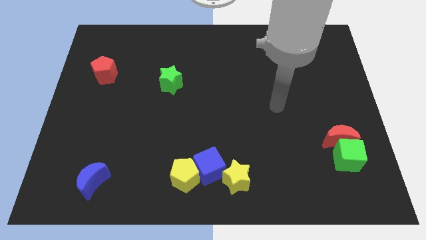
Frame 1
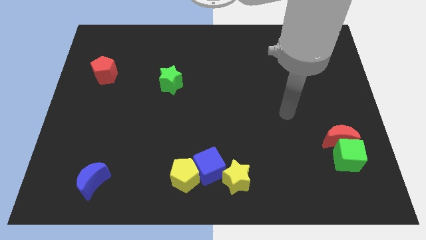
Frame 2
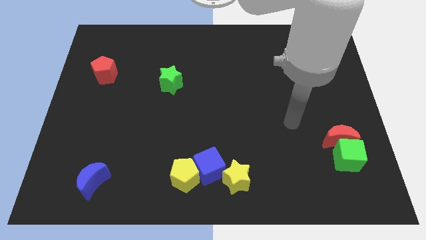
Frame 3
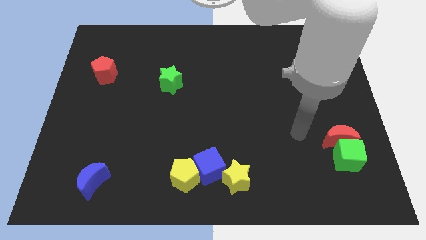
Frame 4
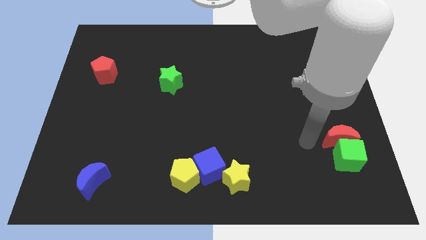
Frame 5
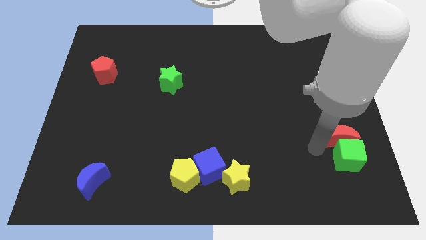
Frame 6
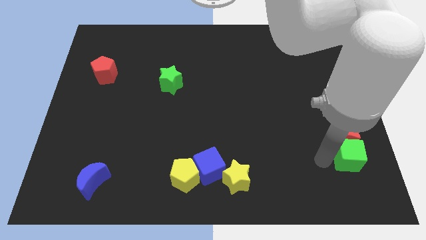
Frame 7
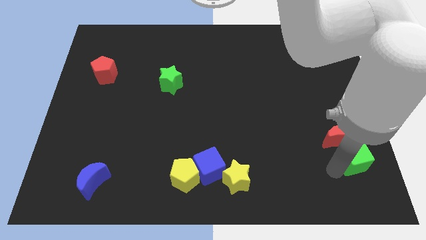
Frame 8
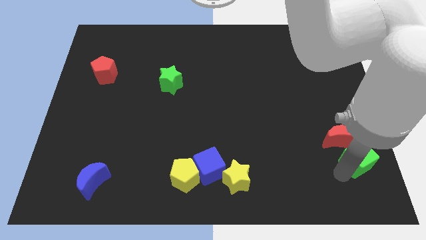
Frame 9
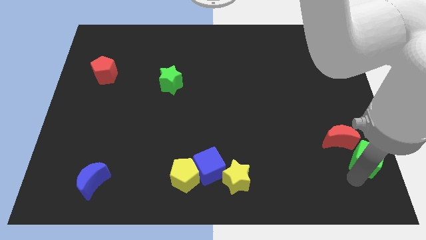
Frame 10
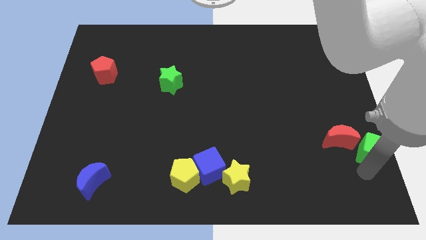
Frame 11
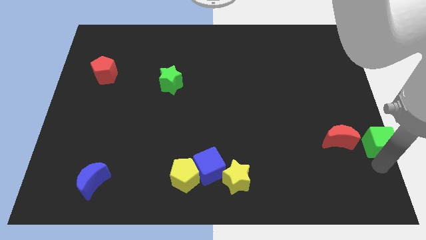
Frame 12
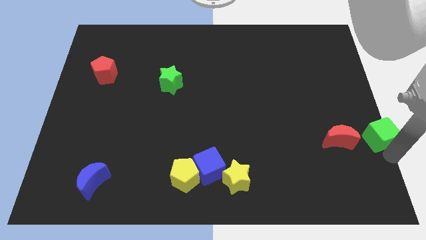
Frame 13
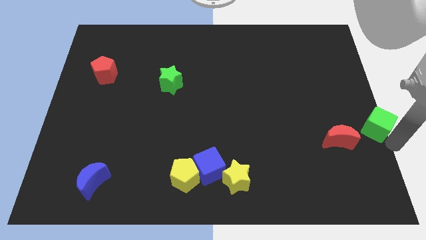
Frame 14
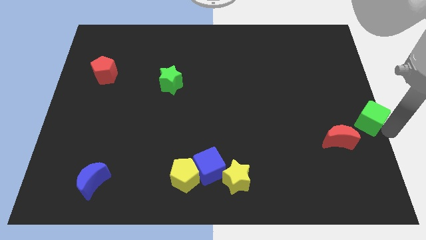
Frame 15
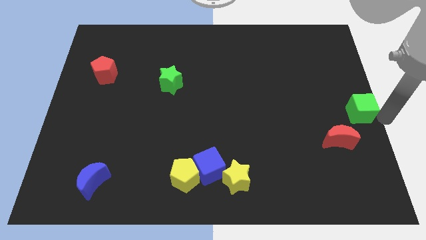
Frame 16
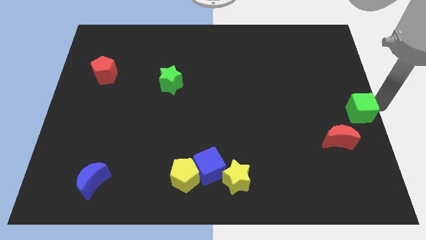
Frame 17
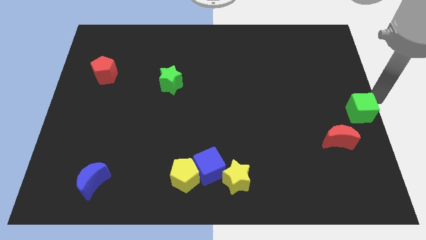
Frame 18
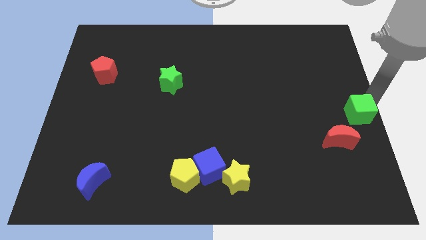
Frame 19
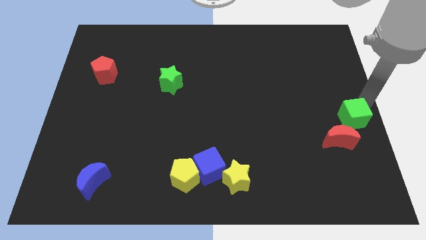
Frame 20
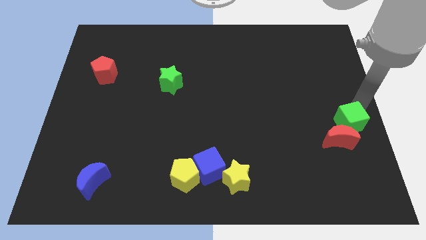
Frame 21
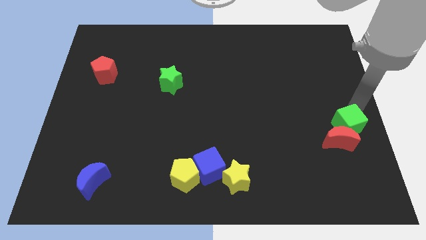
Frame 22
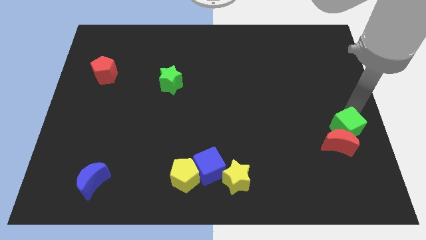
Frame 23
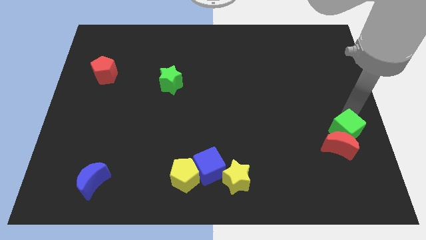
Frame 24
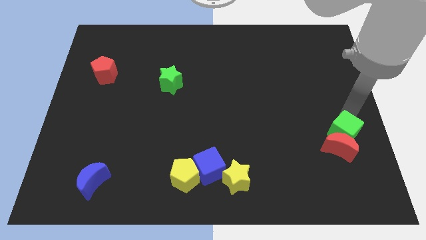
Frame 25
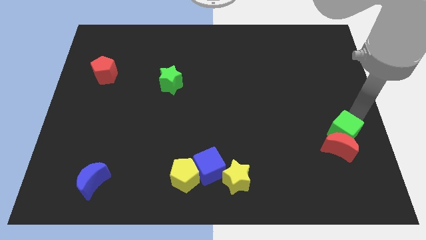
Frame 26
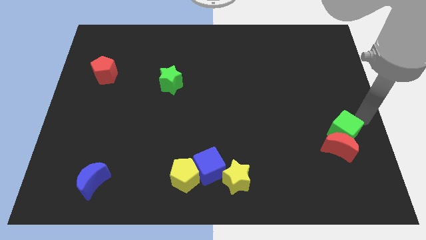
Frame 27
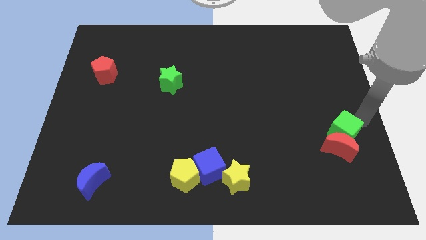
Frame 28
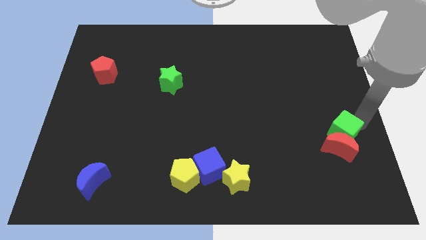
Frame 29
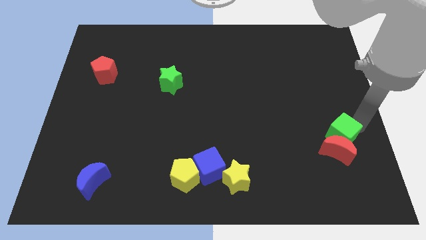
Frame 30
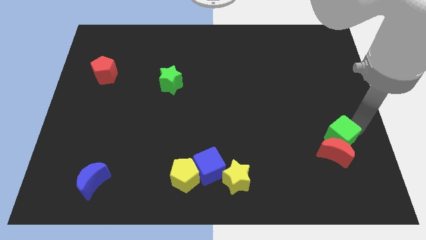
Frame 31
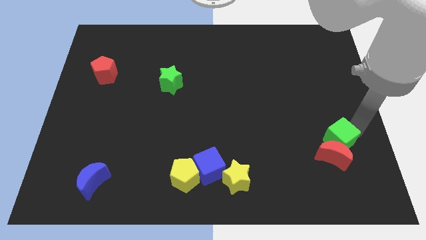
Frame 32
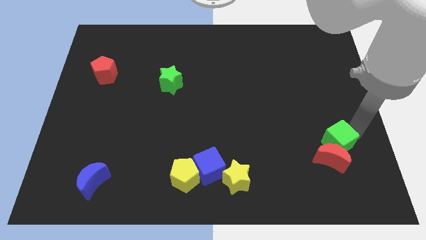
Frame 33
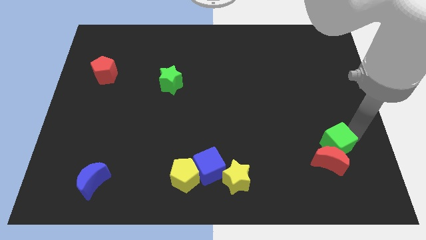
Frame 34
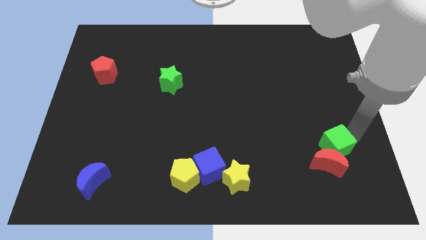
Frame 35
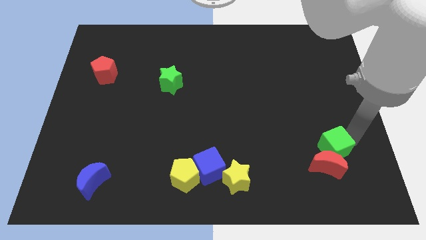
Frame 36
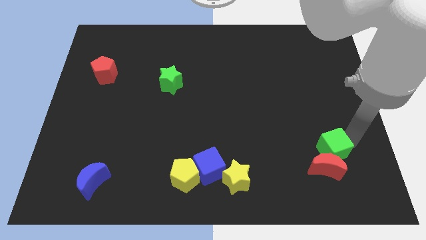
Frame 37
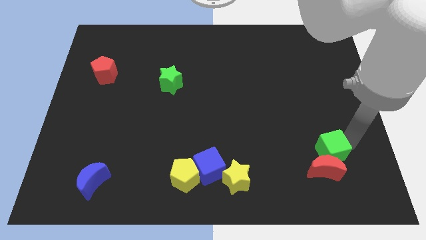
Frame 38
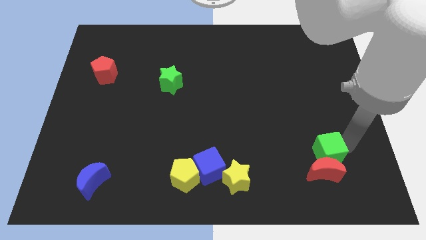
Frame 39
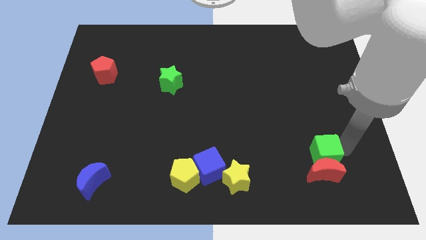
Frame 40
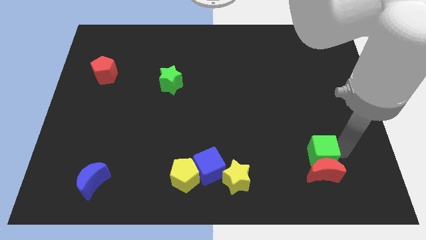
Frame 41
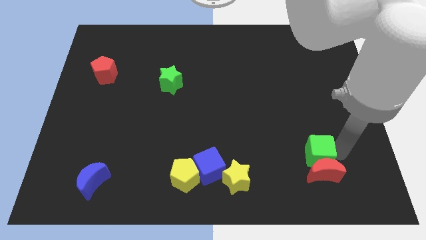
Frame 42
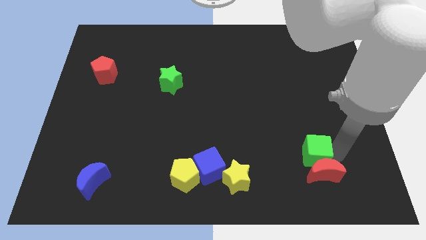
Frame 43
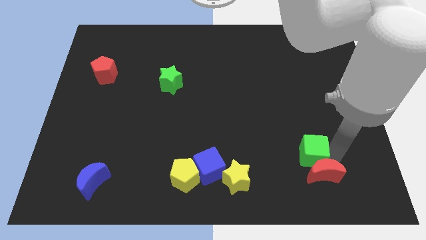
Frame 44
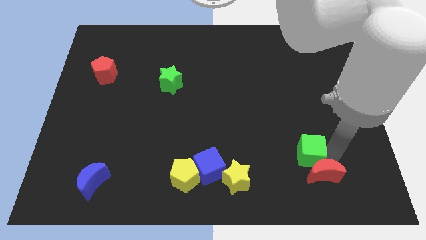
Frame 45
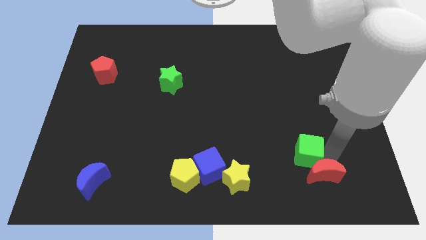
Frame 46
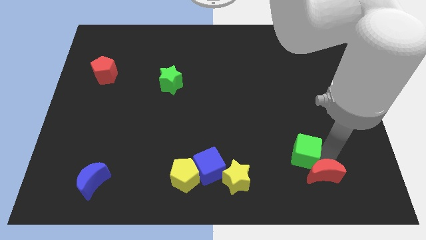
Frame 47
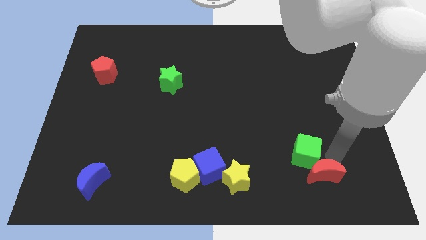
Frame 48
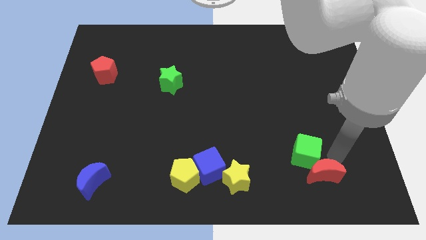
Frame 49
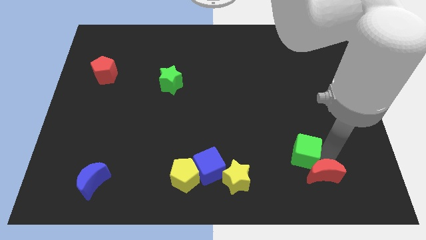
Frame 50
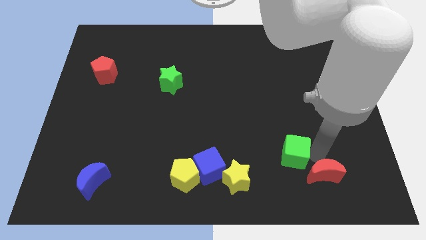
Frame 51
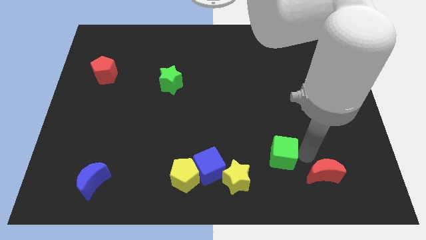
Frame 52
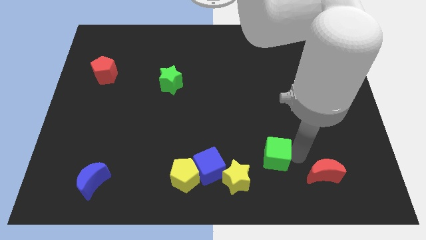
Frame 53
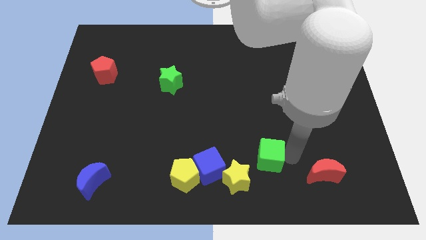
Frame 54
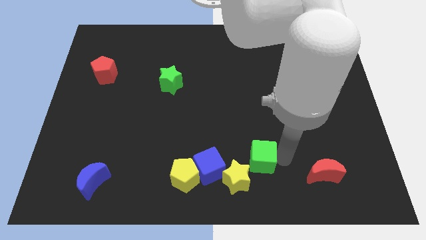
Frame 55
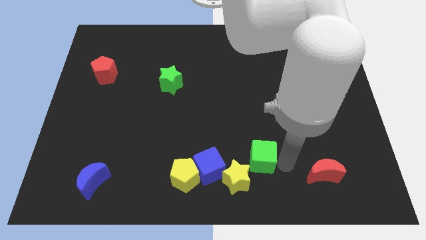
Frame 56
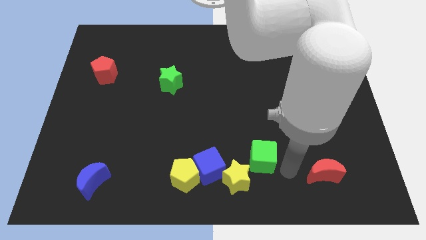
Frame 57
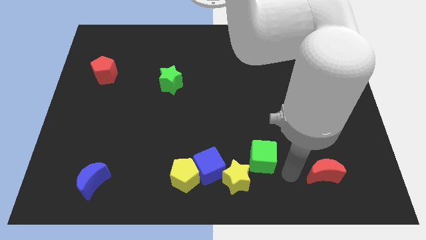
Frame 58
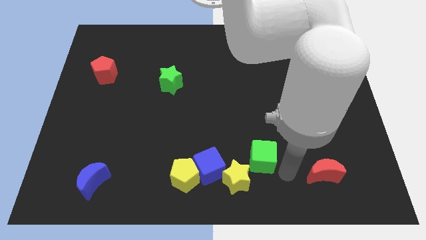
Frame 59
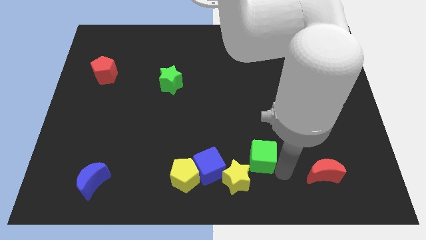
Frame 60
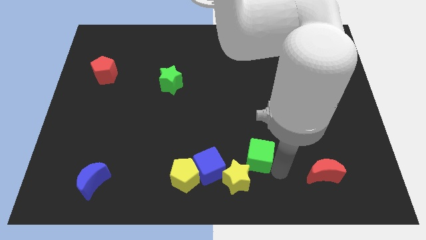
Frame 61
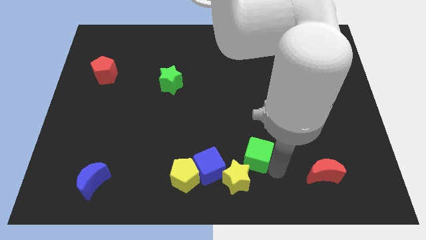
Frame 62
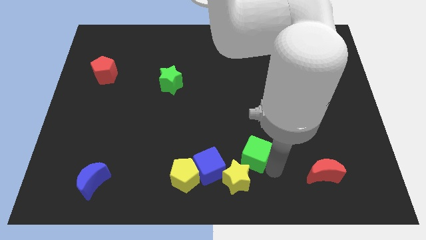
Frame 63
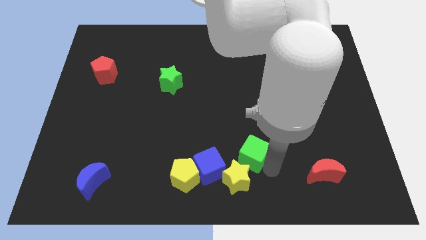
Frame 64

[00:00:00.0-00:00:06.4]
push the green cube left

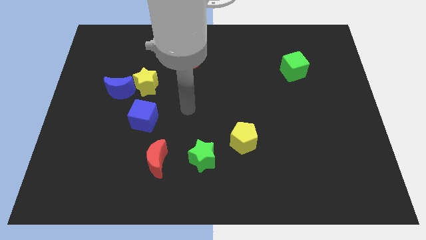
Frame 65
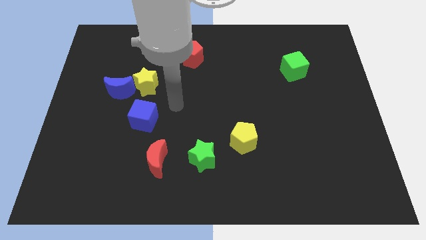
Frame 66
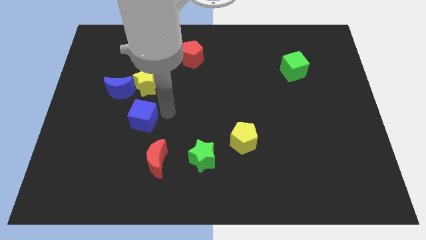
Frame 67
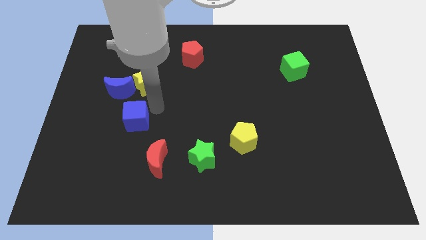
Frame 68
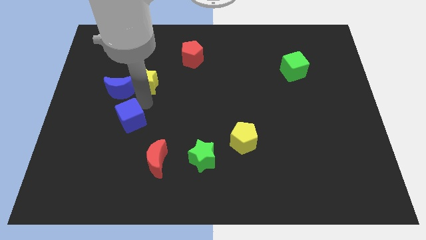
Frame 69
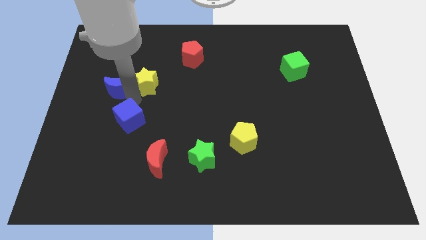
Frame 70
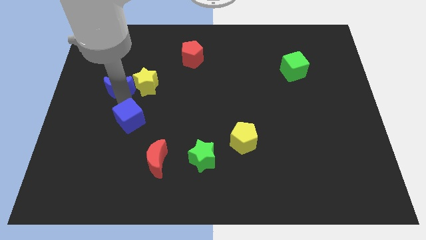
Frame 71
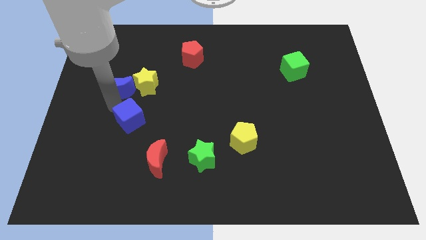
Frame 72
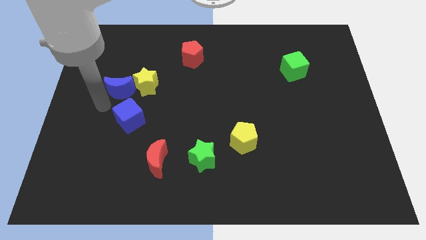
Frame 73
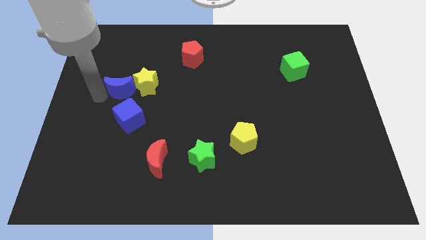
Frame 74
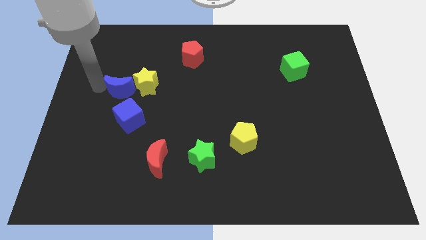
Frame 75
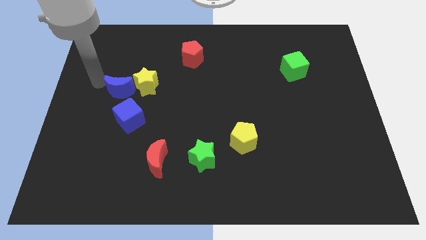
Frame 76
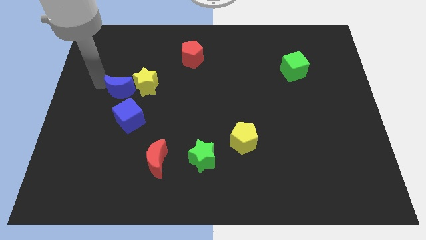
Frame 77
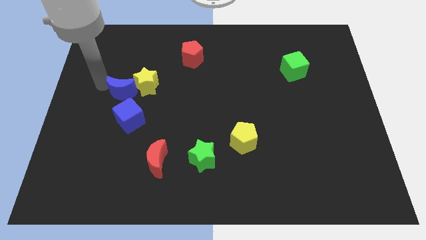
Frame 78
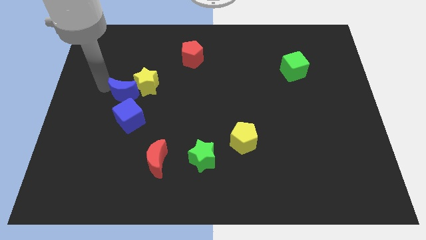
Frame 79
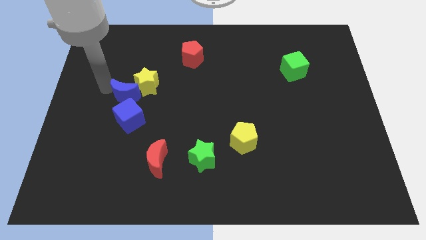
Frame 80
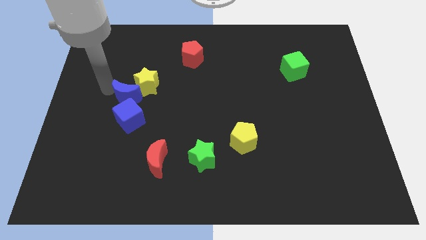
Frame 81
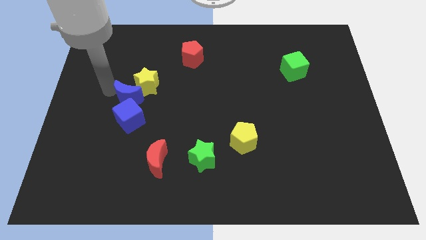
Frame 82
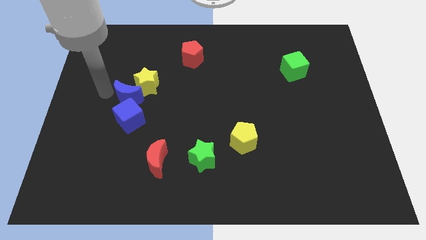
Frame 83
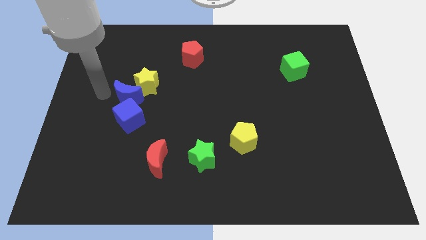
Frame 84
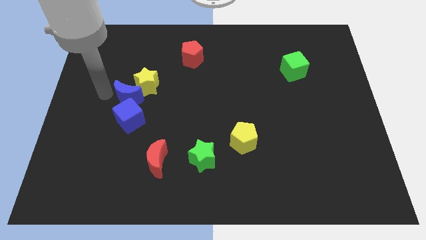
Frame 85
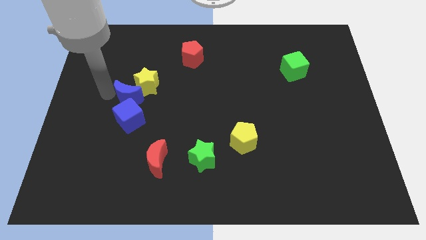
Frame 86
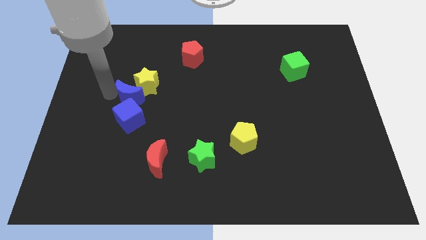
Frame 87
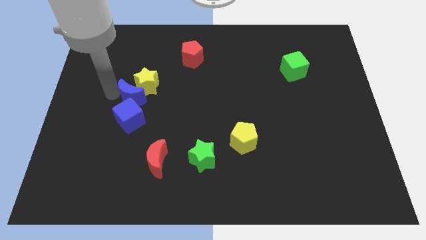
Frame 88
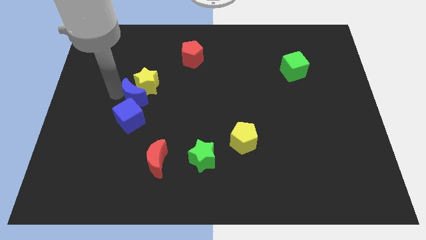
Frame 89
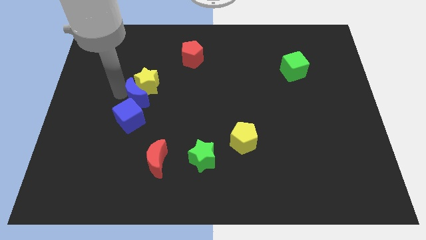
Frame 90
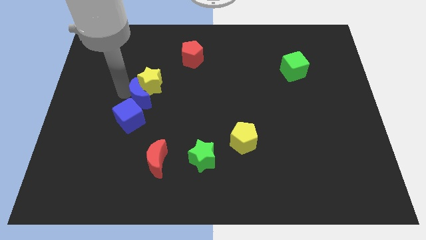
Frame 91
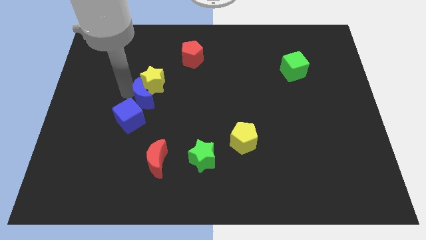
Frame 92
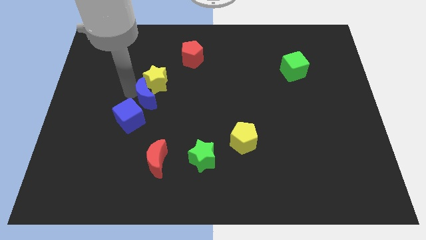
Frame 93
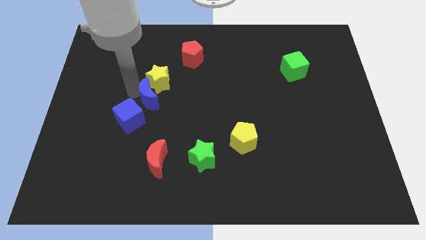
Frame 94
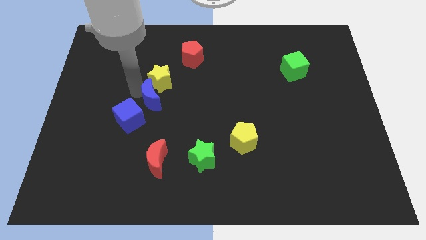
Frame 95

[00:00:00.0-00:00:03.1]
move the blue moon a little diagonally downwards and right
